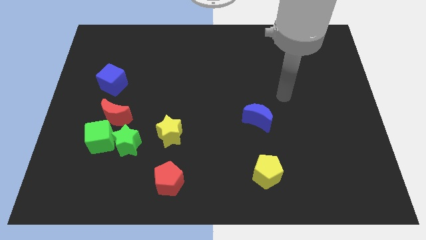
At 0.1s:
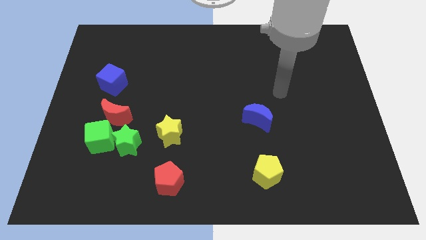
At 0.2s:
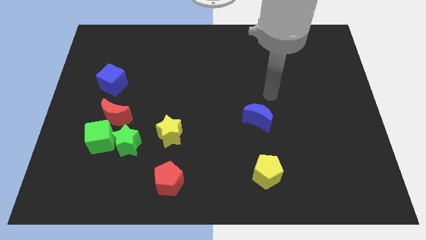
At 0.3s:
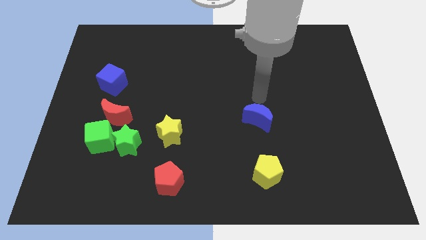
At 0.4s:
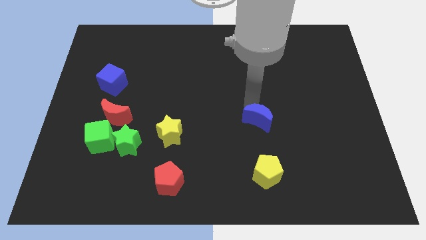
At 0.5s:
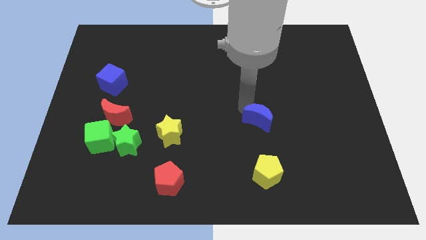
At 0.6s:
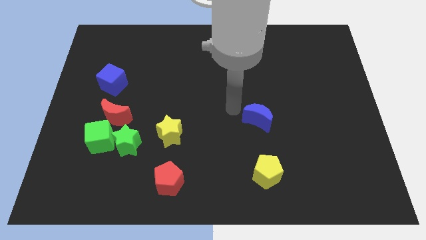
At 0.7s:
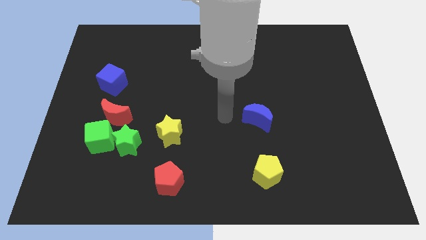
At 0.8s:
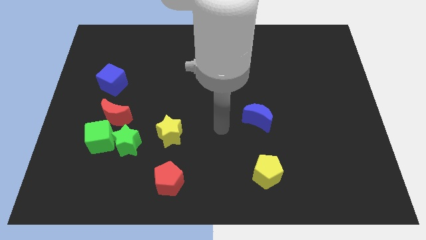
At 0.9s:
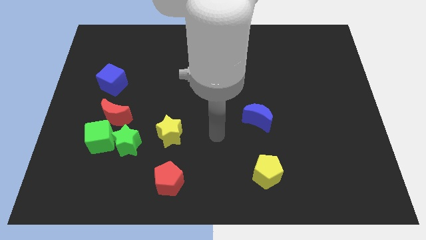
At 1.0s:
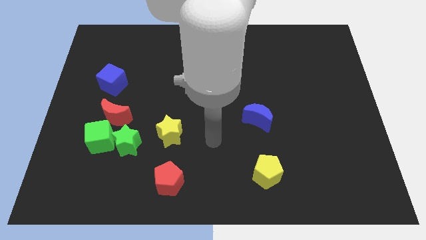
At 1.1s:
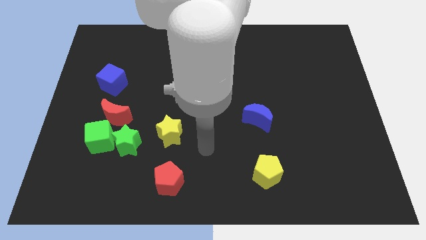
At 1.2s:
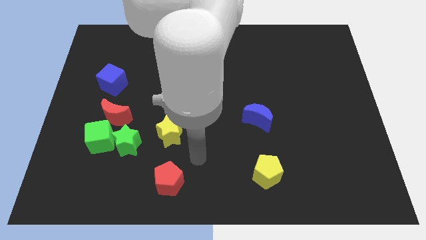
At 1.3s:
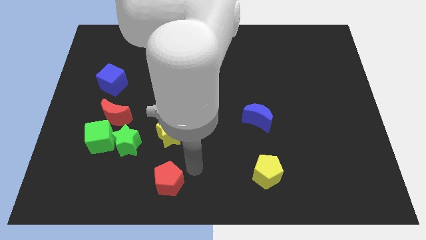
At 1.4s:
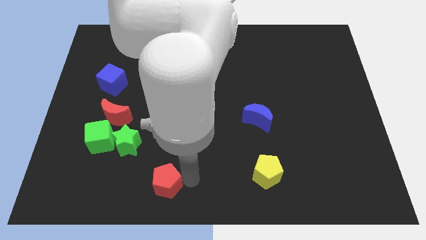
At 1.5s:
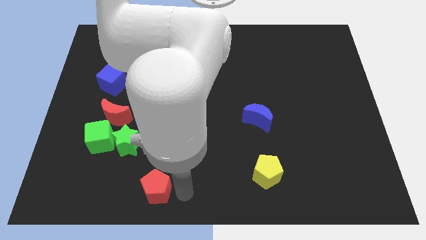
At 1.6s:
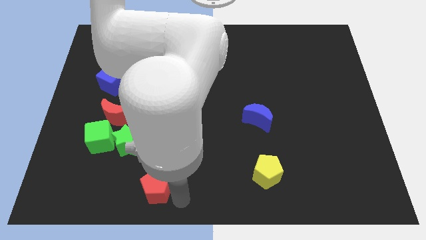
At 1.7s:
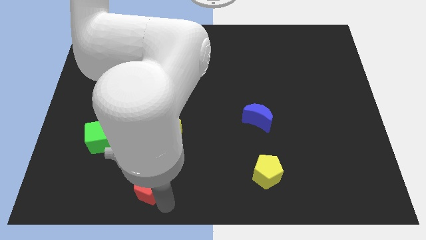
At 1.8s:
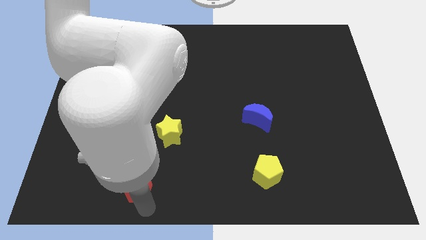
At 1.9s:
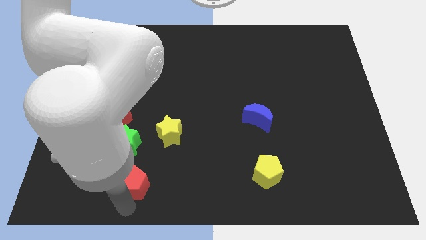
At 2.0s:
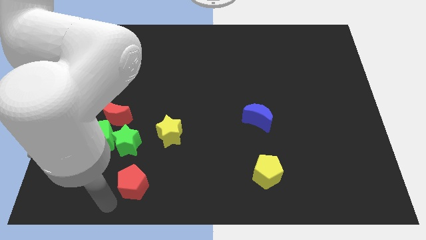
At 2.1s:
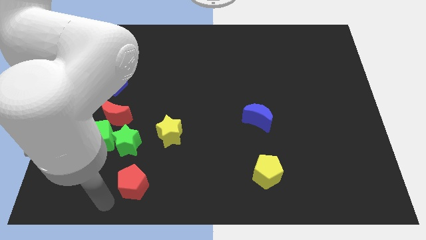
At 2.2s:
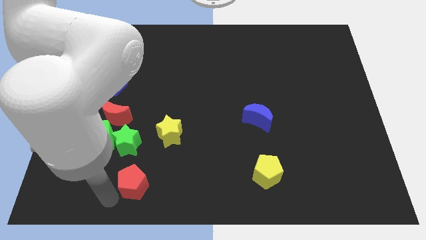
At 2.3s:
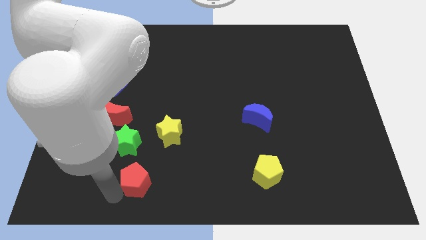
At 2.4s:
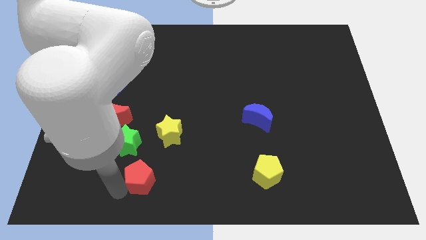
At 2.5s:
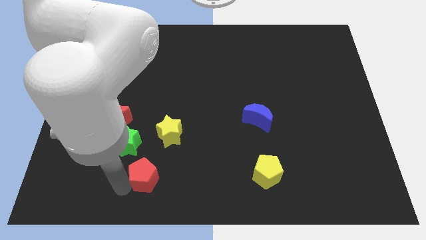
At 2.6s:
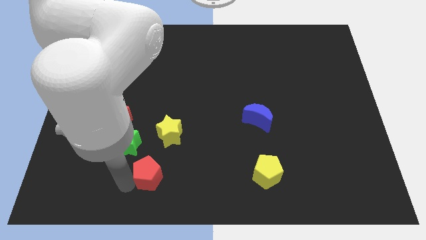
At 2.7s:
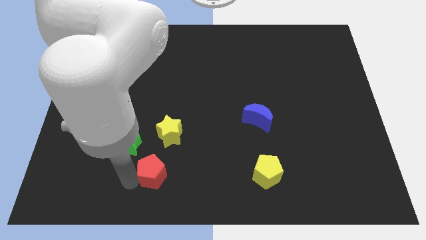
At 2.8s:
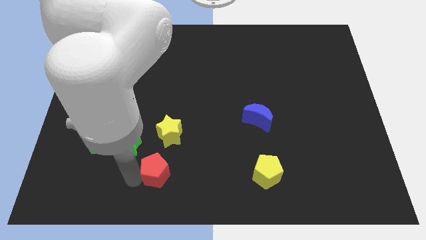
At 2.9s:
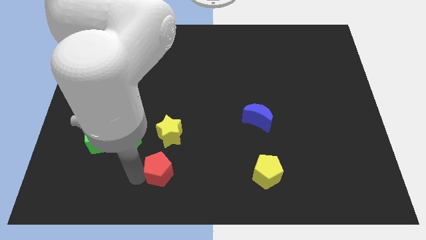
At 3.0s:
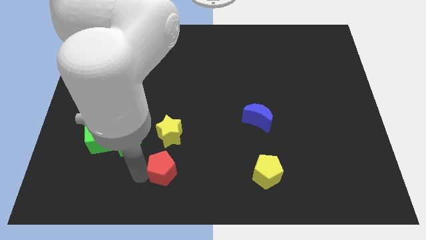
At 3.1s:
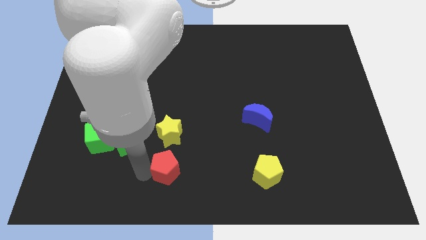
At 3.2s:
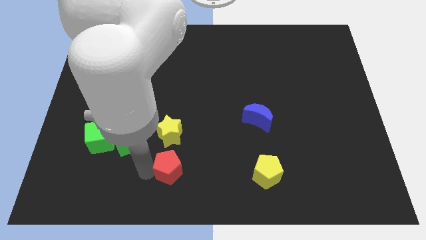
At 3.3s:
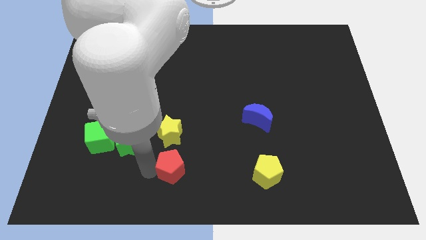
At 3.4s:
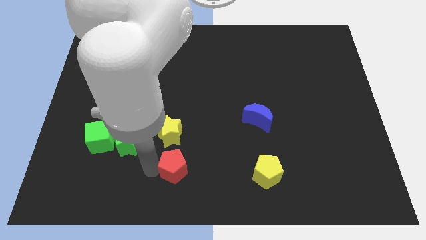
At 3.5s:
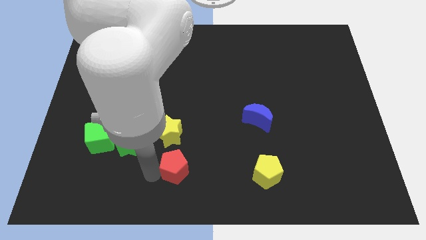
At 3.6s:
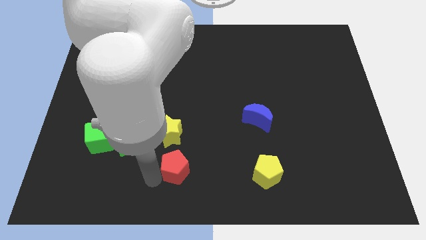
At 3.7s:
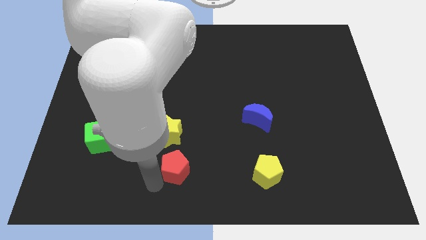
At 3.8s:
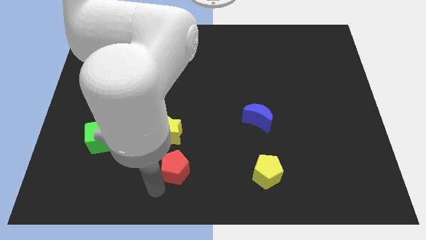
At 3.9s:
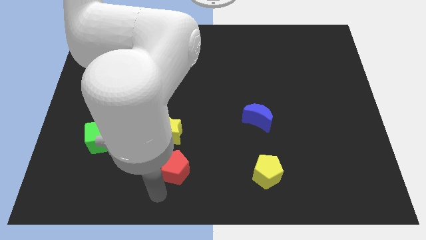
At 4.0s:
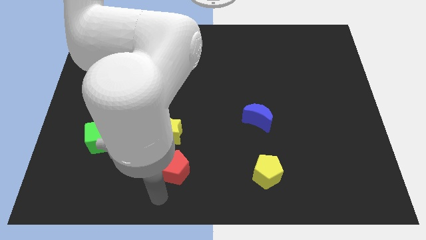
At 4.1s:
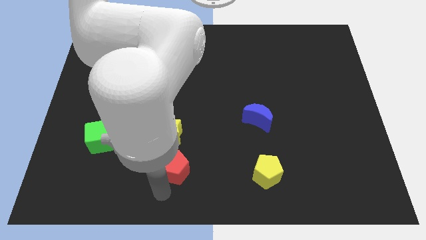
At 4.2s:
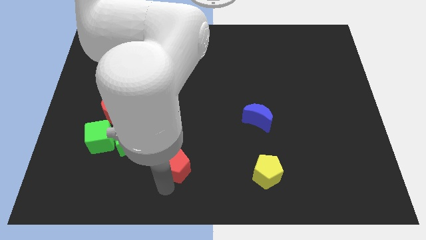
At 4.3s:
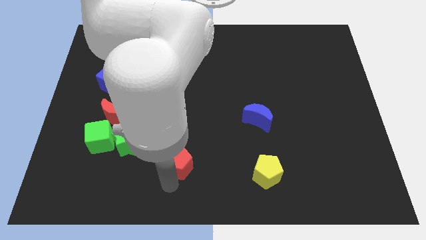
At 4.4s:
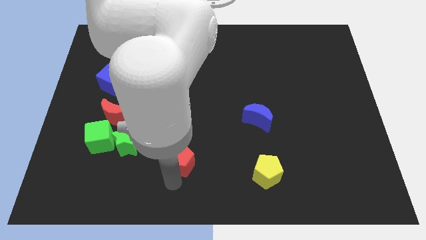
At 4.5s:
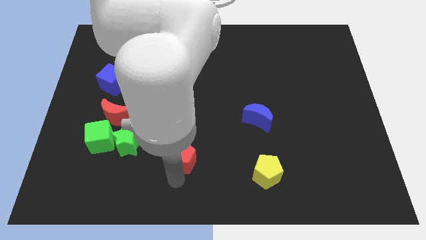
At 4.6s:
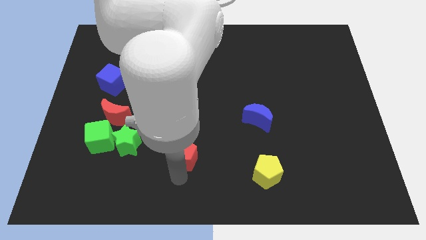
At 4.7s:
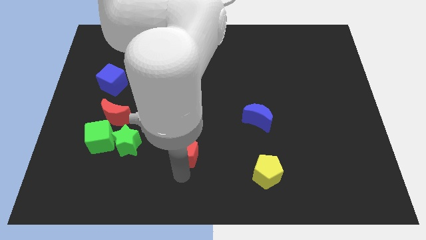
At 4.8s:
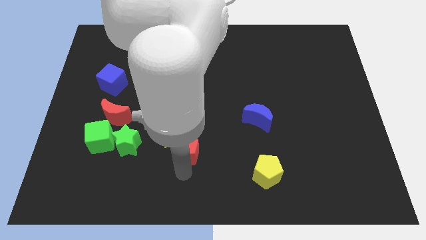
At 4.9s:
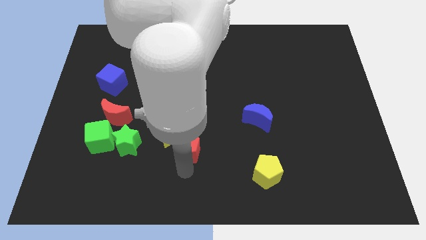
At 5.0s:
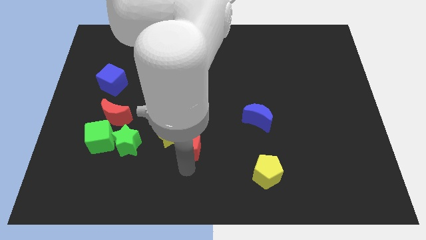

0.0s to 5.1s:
move the red pentagon somewhat upwards

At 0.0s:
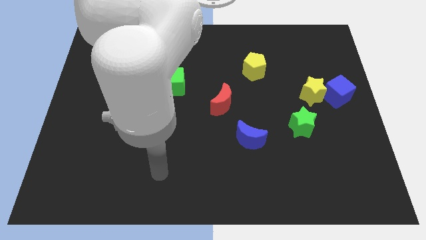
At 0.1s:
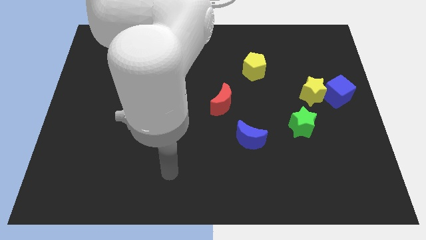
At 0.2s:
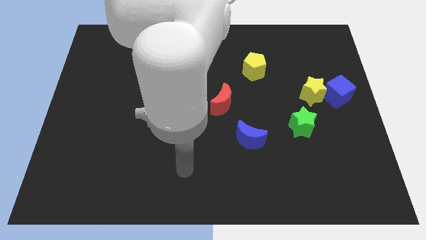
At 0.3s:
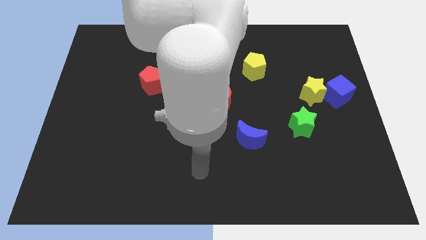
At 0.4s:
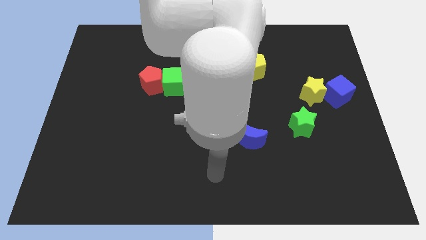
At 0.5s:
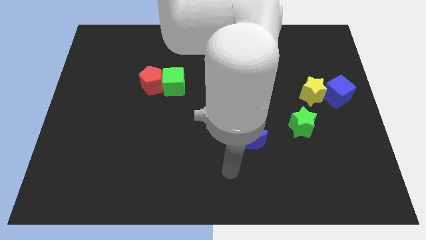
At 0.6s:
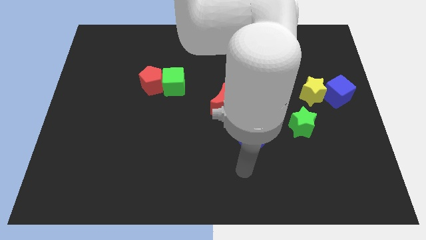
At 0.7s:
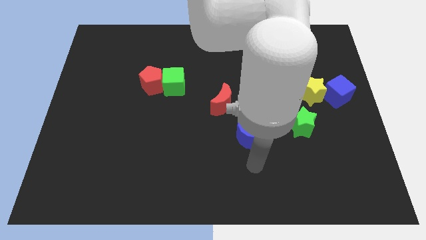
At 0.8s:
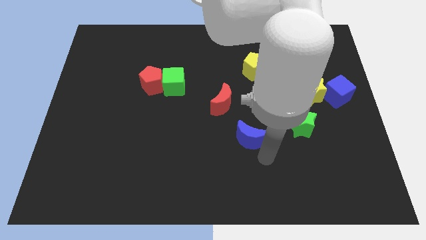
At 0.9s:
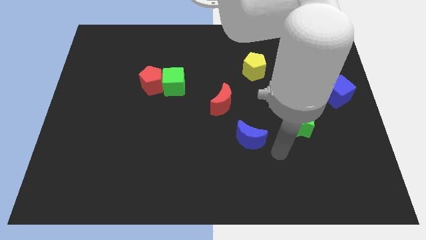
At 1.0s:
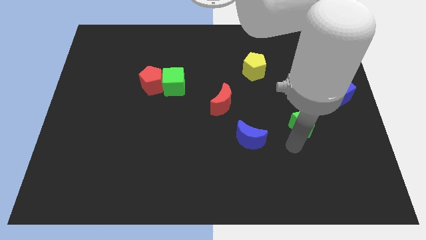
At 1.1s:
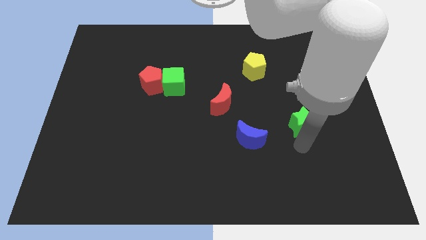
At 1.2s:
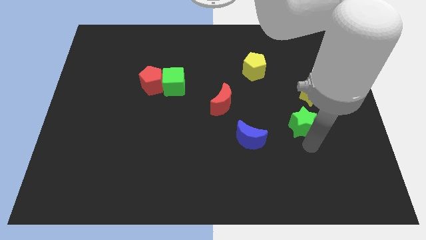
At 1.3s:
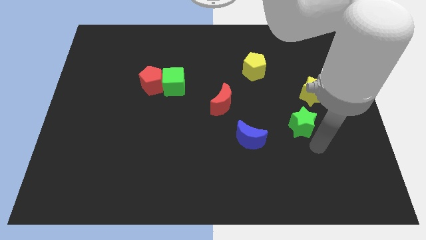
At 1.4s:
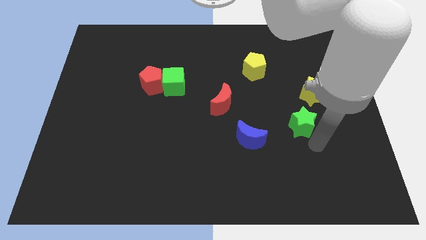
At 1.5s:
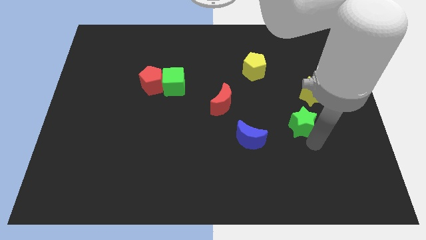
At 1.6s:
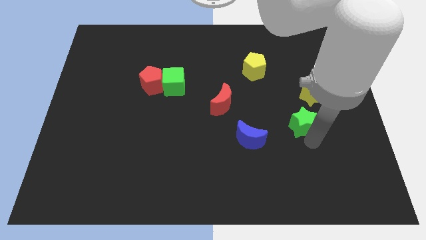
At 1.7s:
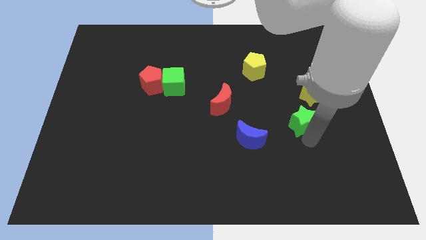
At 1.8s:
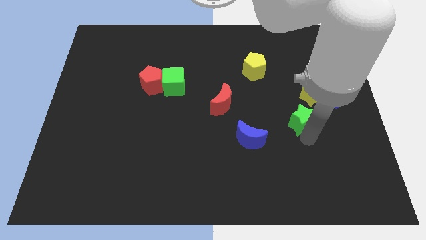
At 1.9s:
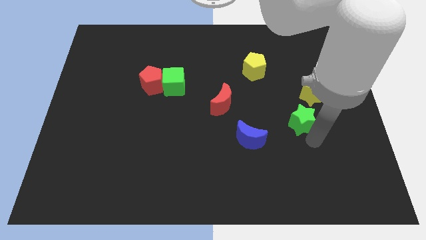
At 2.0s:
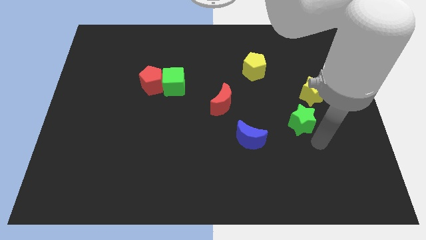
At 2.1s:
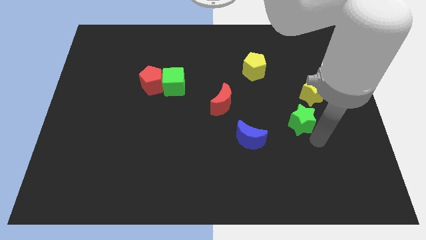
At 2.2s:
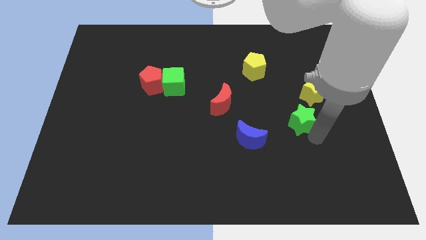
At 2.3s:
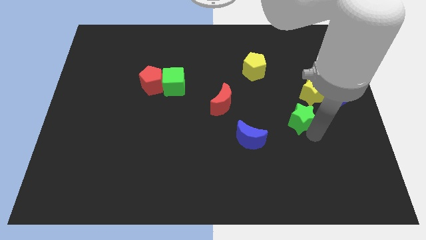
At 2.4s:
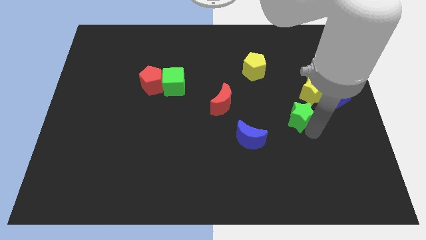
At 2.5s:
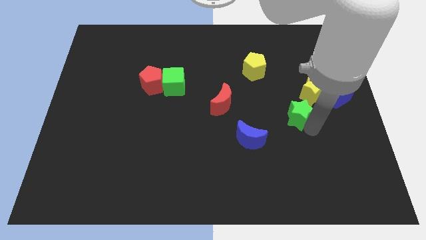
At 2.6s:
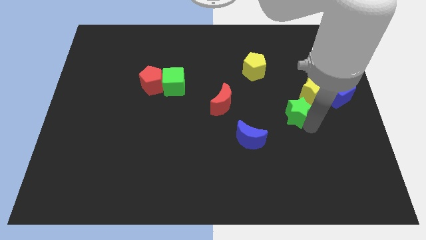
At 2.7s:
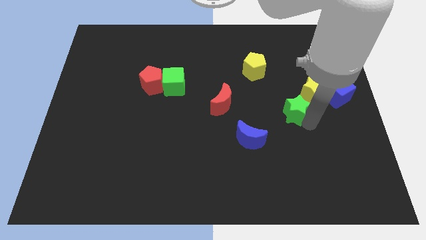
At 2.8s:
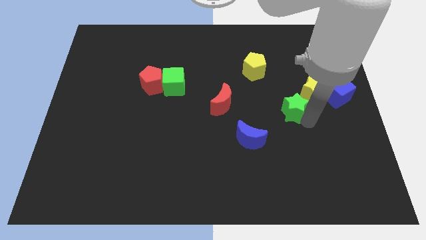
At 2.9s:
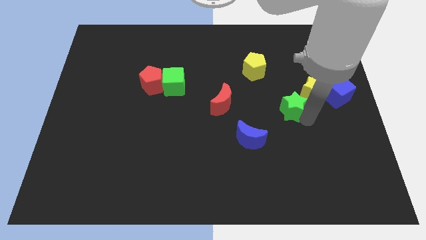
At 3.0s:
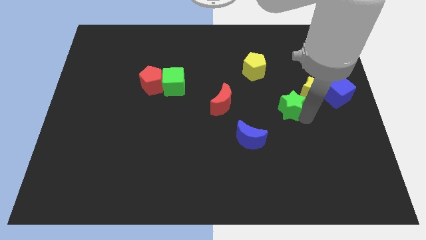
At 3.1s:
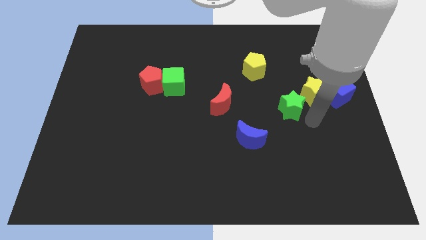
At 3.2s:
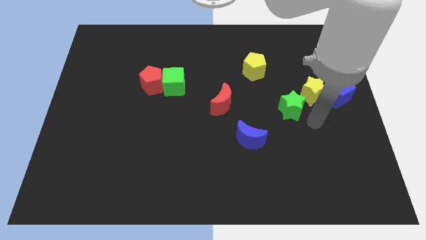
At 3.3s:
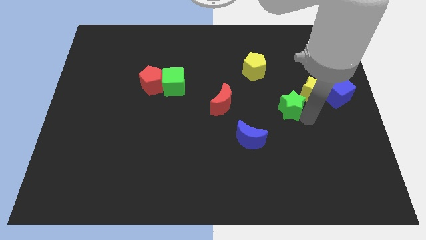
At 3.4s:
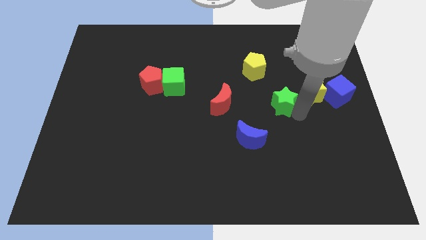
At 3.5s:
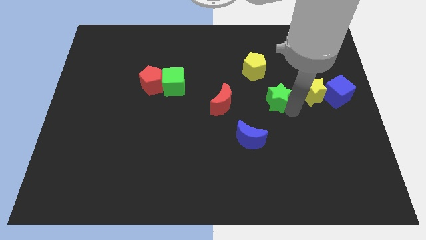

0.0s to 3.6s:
push the green star up and then to the left a little
